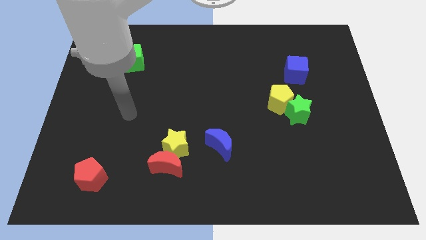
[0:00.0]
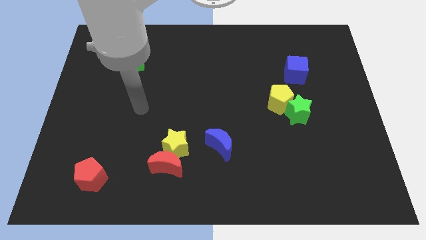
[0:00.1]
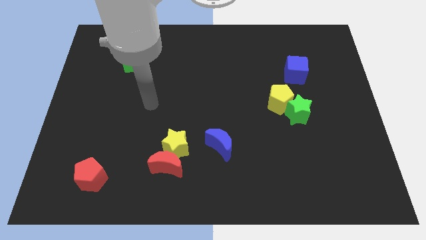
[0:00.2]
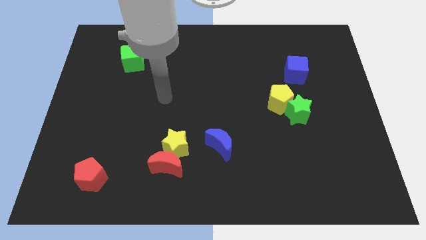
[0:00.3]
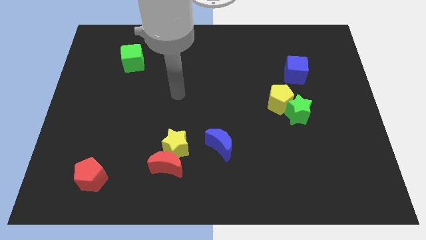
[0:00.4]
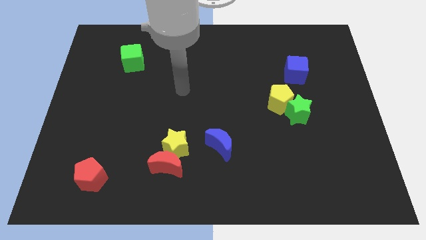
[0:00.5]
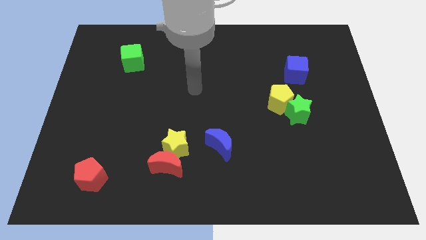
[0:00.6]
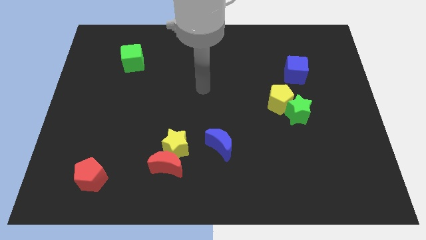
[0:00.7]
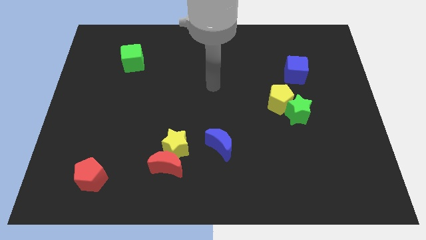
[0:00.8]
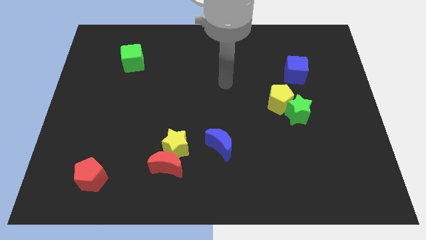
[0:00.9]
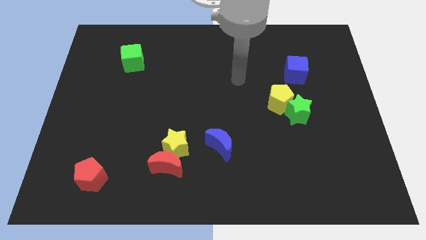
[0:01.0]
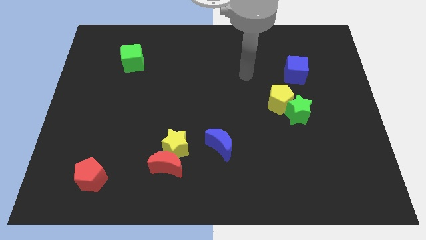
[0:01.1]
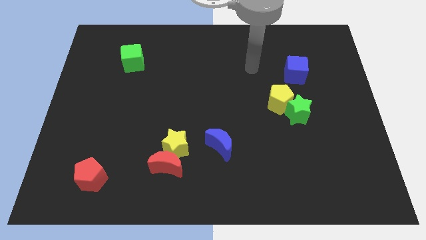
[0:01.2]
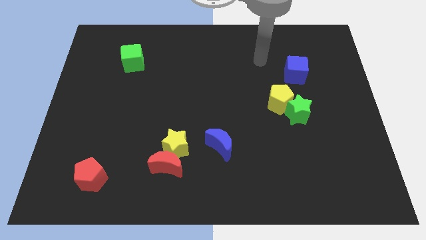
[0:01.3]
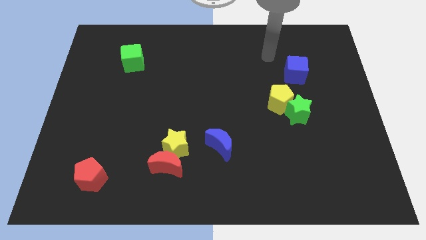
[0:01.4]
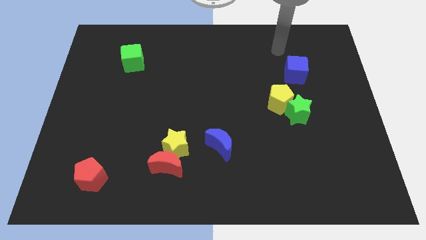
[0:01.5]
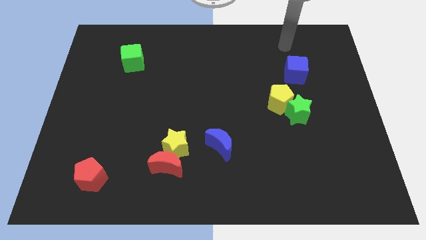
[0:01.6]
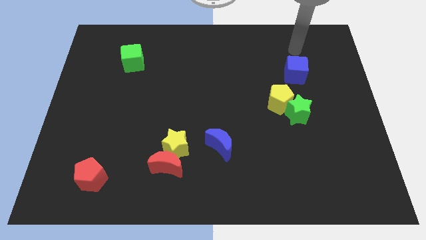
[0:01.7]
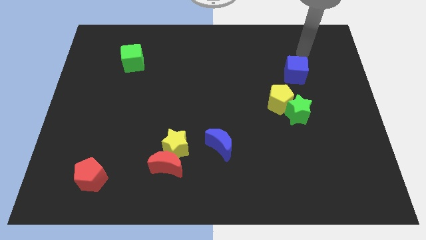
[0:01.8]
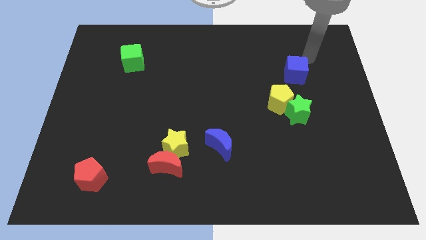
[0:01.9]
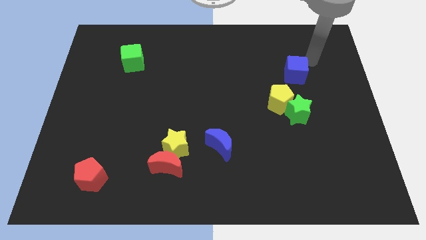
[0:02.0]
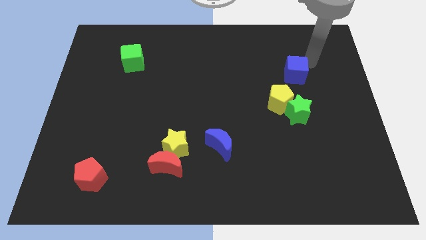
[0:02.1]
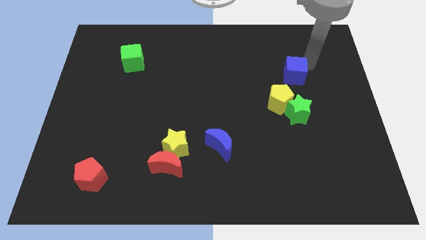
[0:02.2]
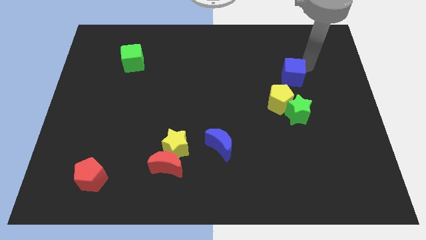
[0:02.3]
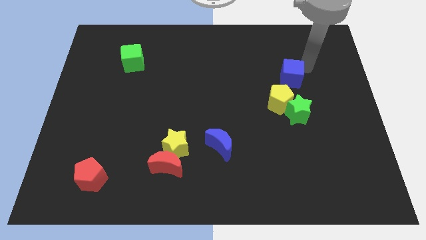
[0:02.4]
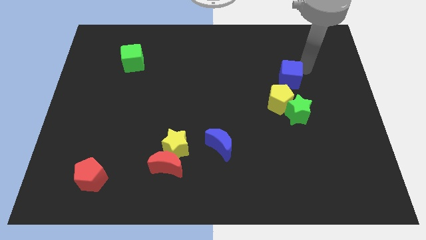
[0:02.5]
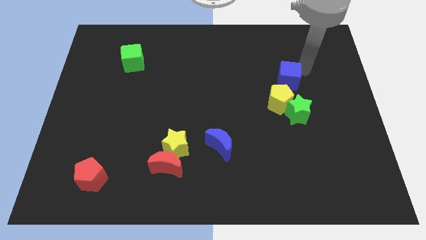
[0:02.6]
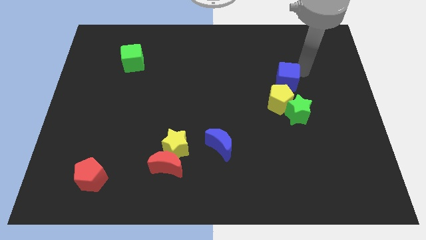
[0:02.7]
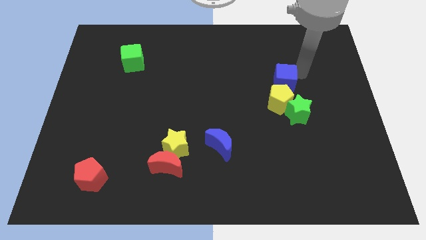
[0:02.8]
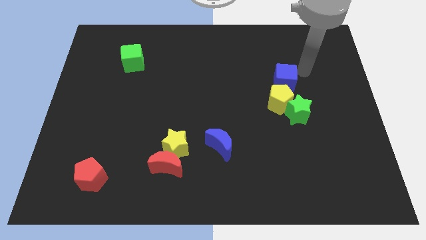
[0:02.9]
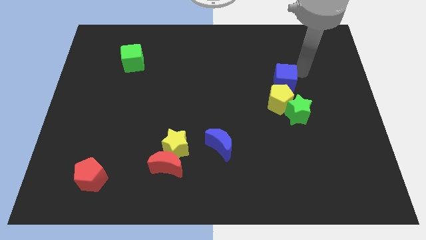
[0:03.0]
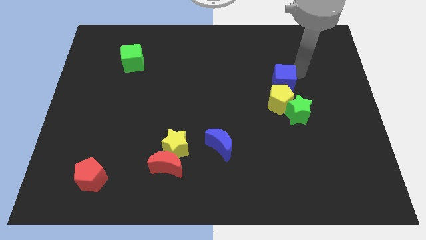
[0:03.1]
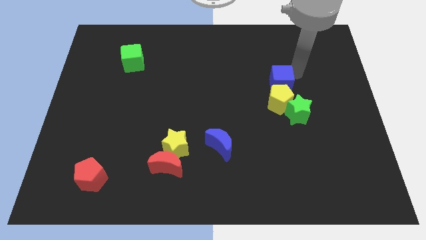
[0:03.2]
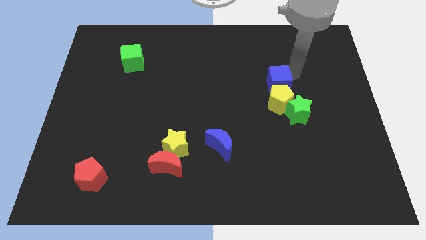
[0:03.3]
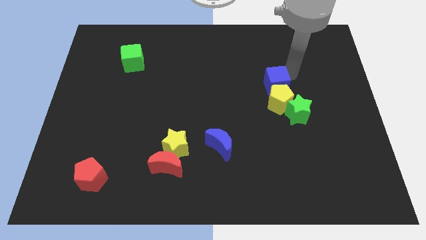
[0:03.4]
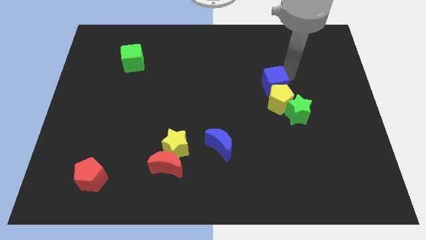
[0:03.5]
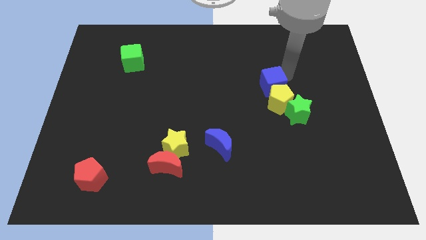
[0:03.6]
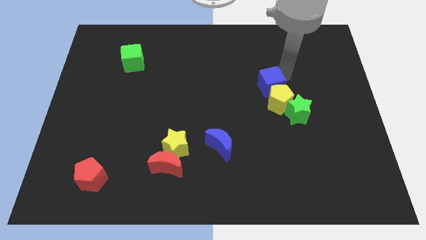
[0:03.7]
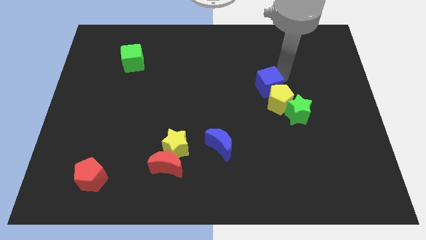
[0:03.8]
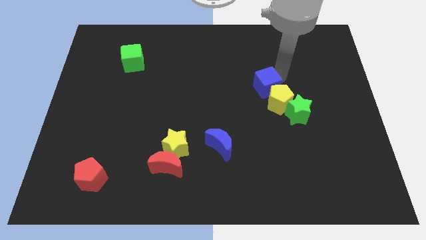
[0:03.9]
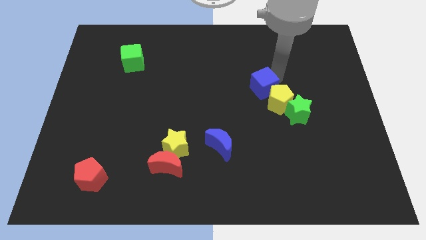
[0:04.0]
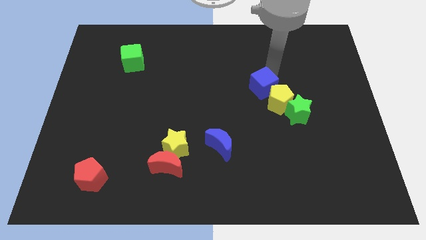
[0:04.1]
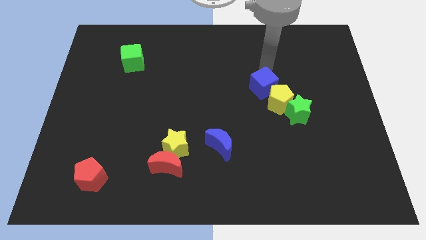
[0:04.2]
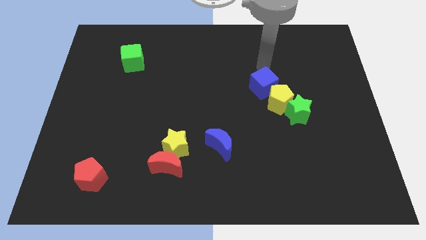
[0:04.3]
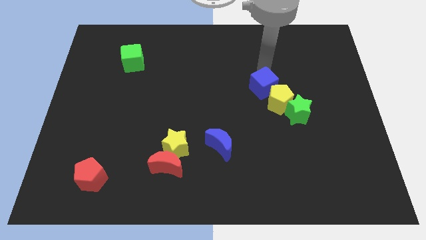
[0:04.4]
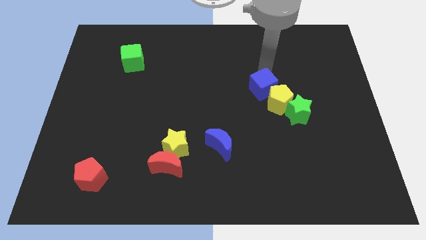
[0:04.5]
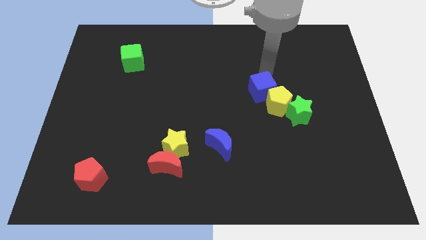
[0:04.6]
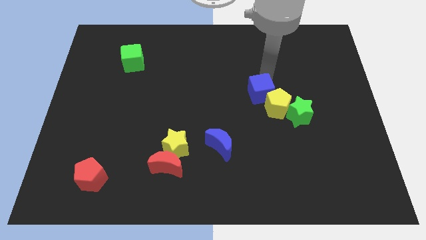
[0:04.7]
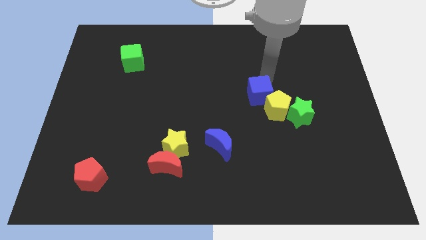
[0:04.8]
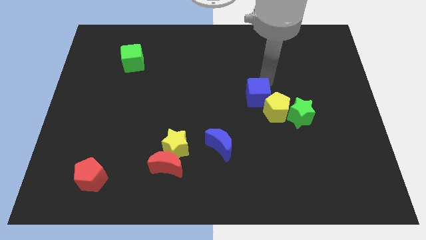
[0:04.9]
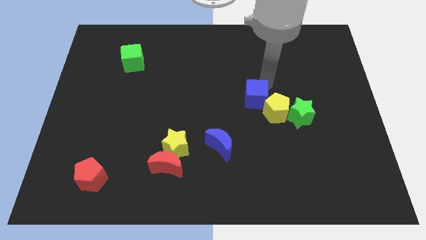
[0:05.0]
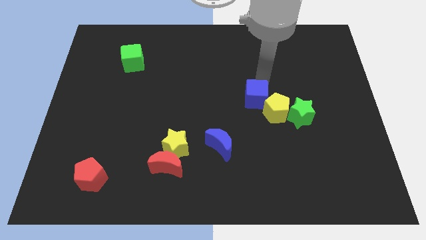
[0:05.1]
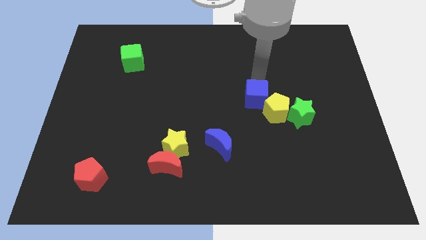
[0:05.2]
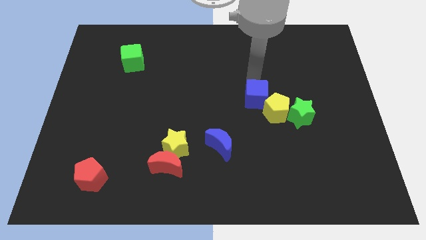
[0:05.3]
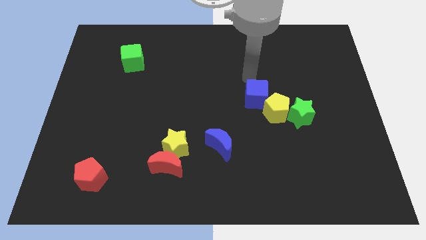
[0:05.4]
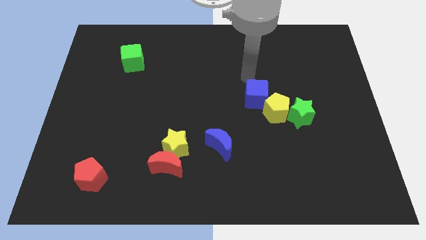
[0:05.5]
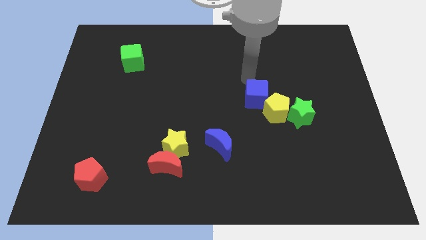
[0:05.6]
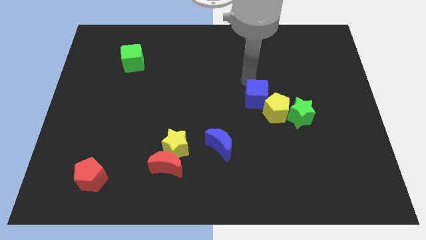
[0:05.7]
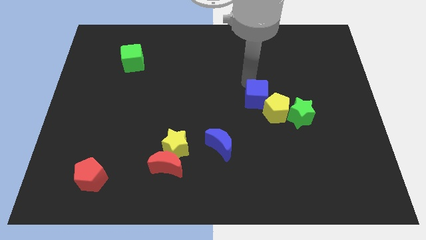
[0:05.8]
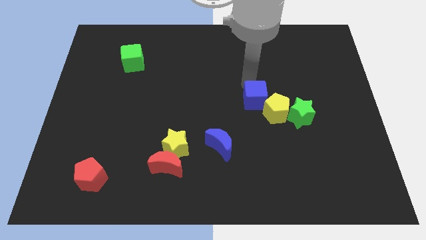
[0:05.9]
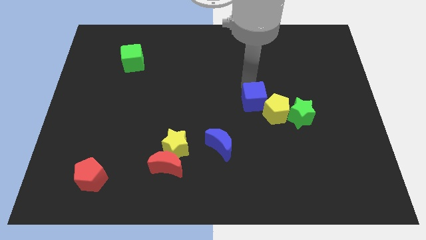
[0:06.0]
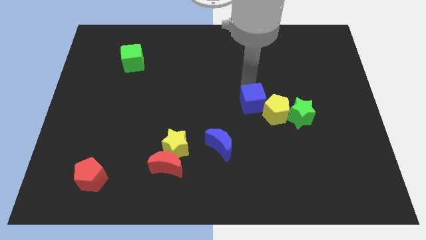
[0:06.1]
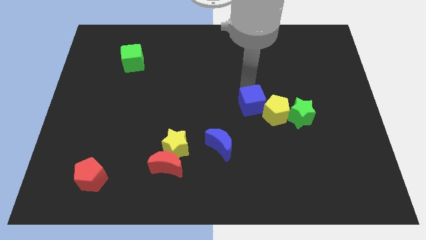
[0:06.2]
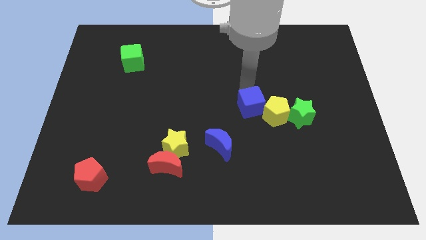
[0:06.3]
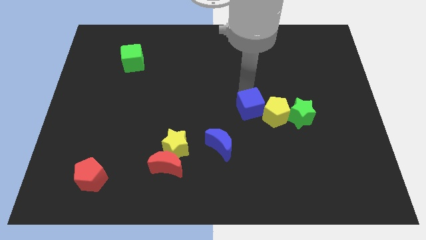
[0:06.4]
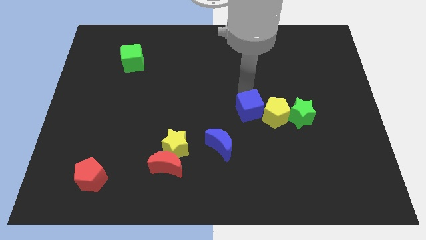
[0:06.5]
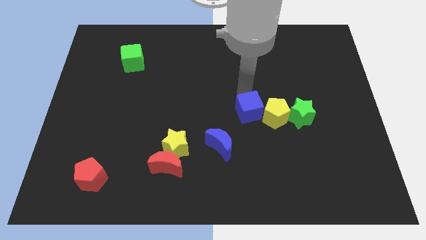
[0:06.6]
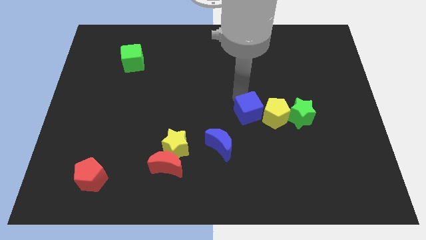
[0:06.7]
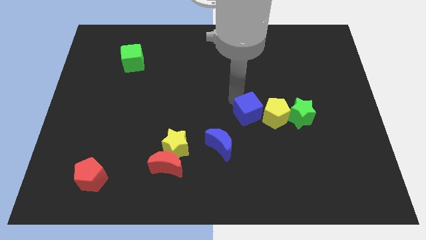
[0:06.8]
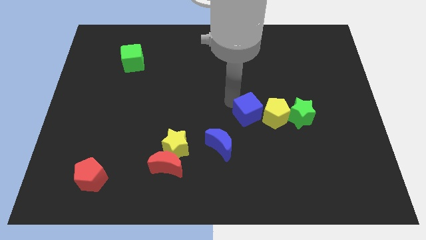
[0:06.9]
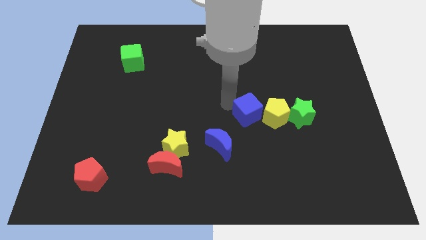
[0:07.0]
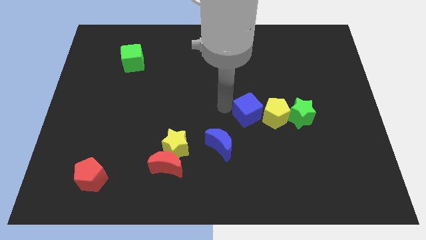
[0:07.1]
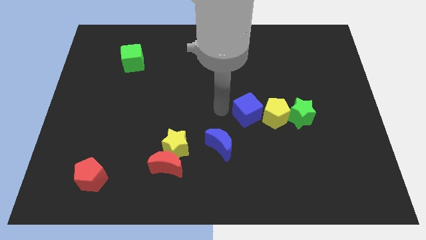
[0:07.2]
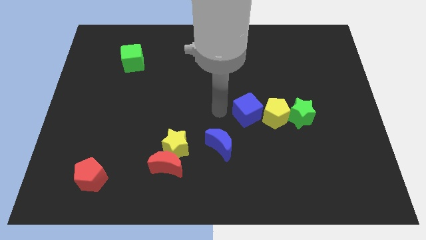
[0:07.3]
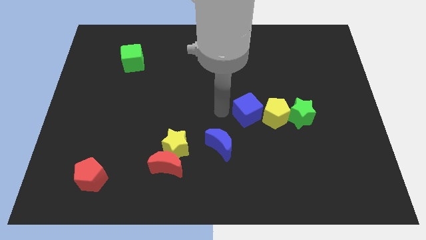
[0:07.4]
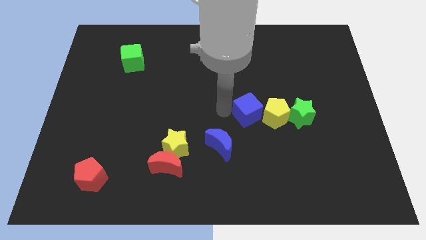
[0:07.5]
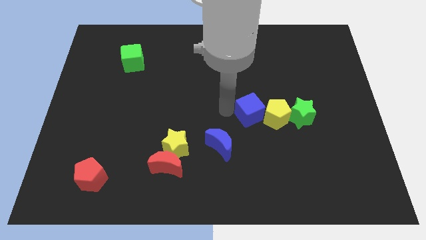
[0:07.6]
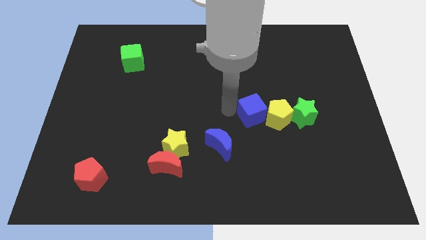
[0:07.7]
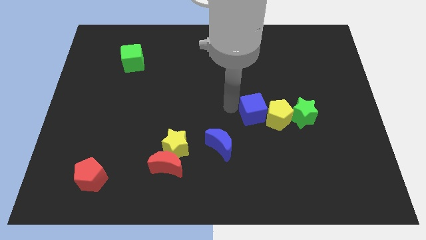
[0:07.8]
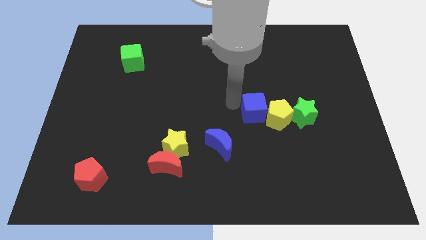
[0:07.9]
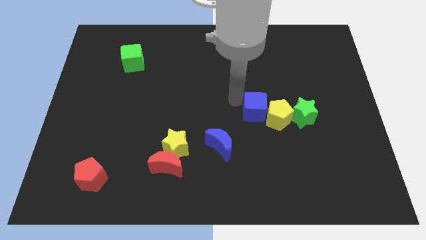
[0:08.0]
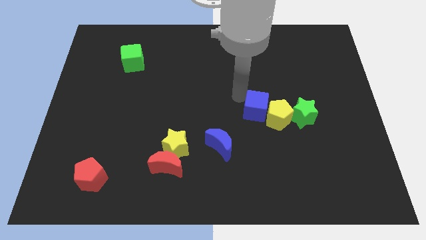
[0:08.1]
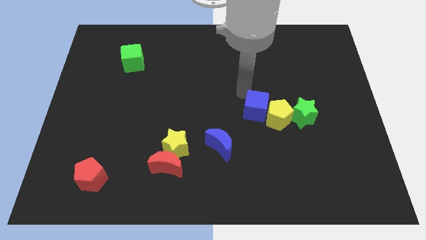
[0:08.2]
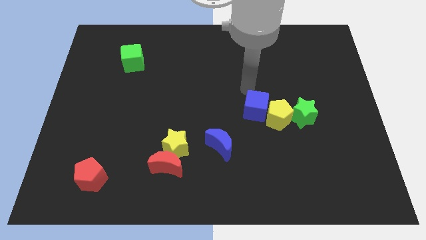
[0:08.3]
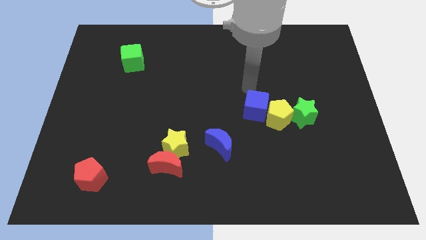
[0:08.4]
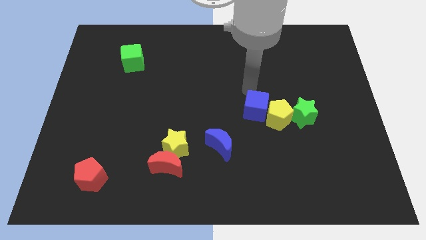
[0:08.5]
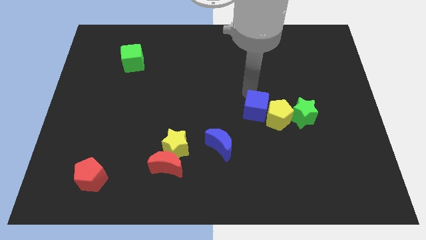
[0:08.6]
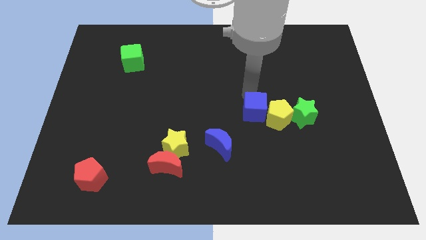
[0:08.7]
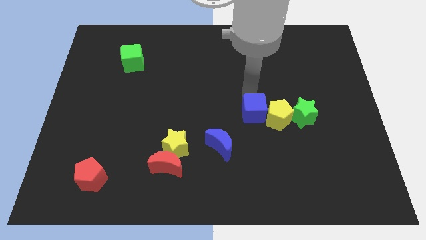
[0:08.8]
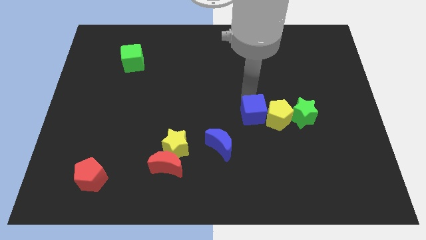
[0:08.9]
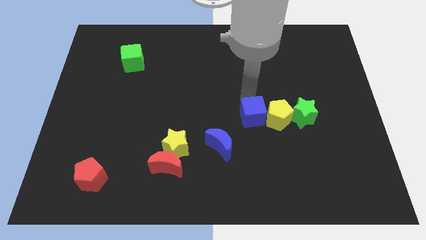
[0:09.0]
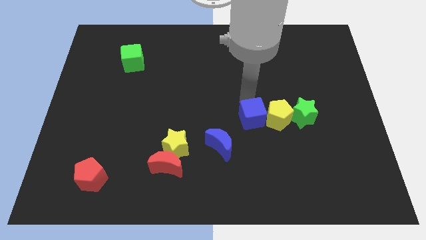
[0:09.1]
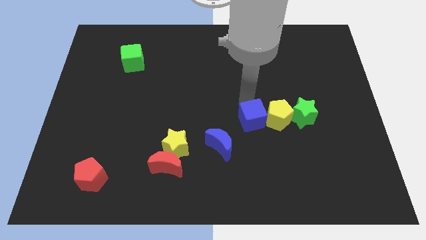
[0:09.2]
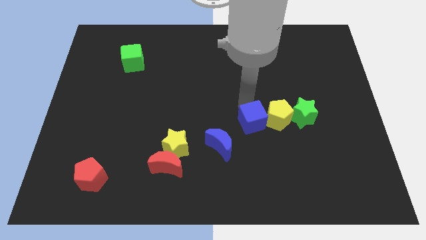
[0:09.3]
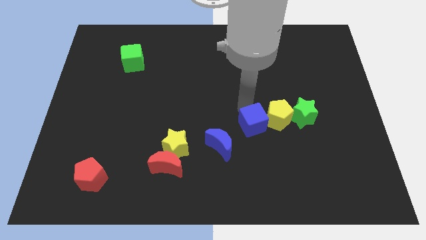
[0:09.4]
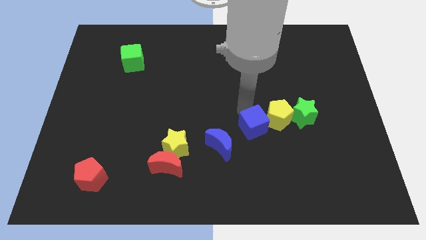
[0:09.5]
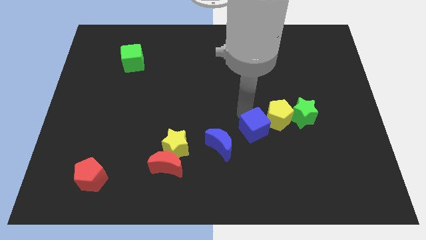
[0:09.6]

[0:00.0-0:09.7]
slide the blue cube just right of the blue moon
